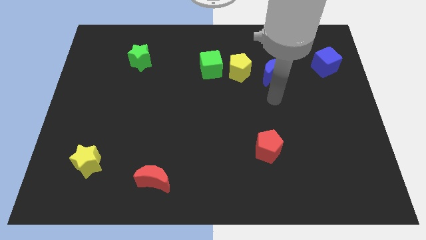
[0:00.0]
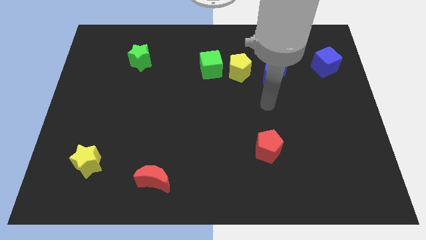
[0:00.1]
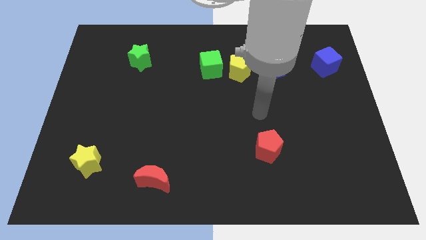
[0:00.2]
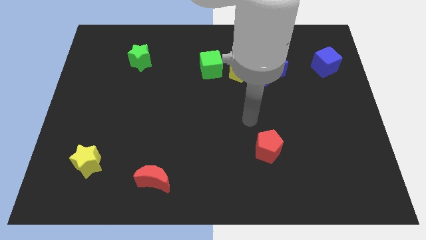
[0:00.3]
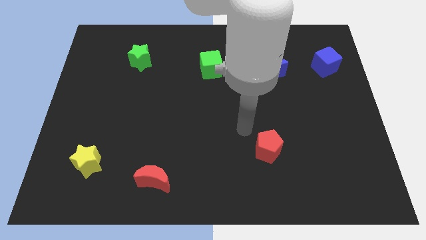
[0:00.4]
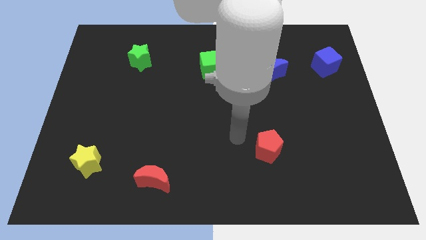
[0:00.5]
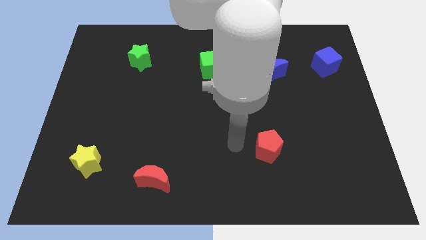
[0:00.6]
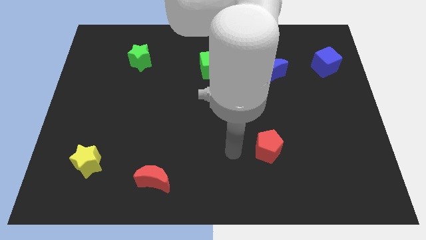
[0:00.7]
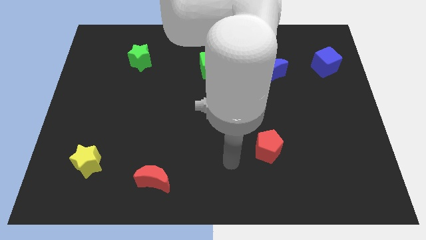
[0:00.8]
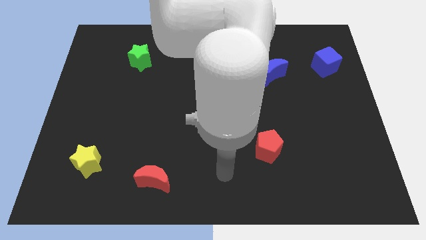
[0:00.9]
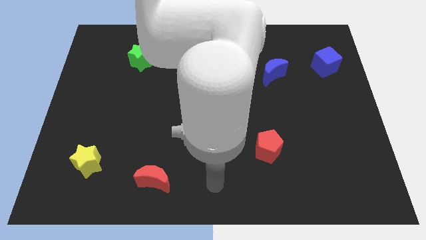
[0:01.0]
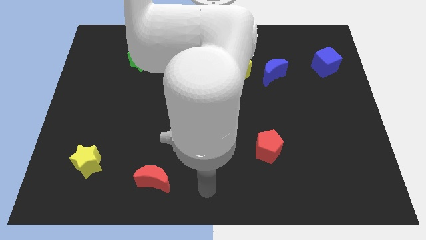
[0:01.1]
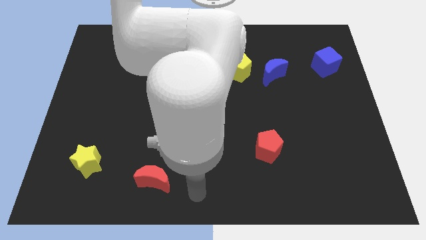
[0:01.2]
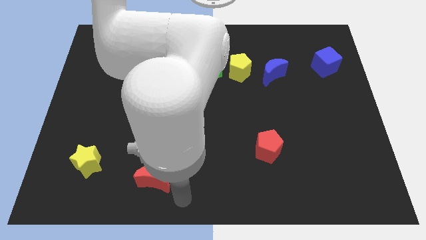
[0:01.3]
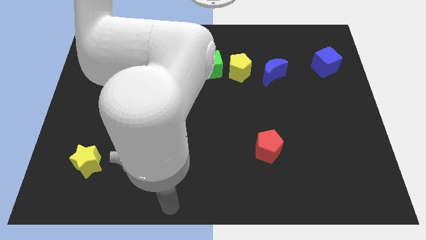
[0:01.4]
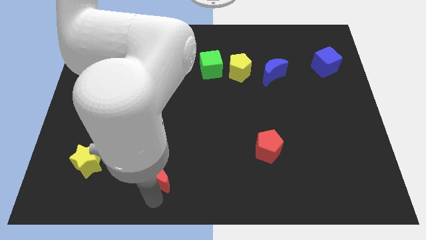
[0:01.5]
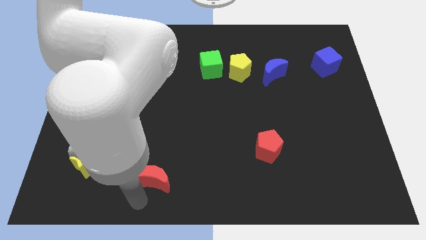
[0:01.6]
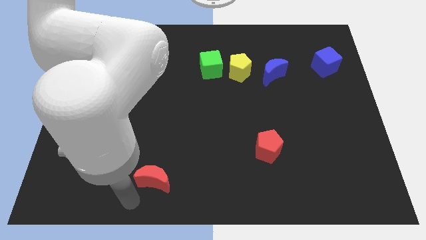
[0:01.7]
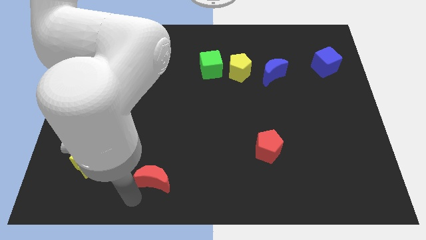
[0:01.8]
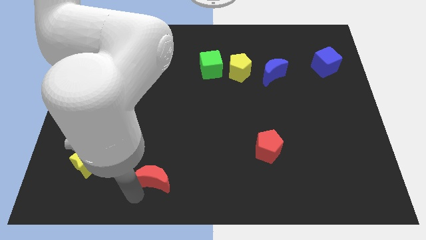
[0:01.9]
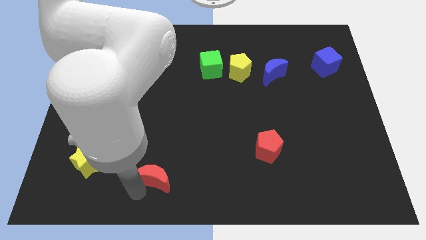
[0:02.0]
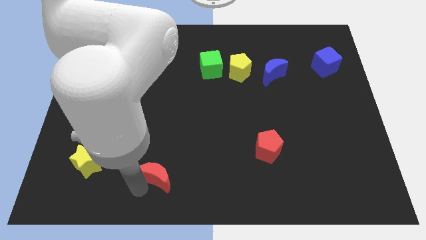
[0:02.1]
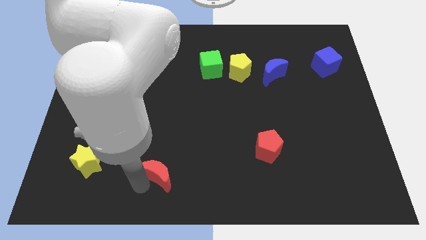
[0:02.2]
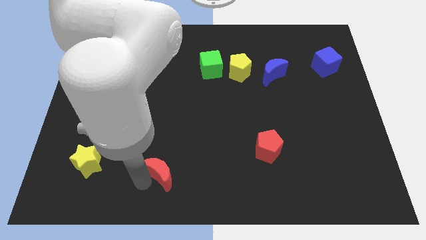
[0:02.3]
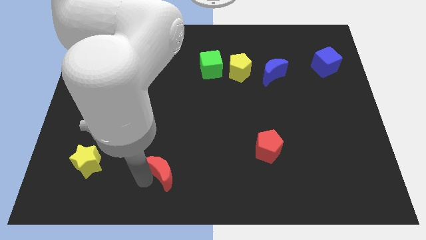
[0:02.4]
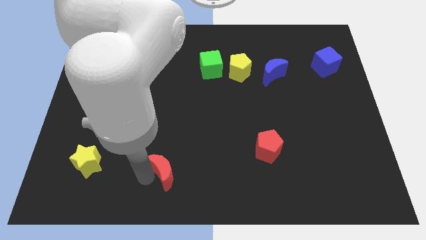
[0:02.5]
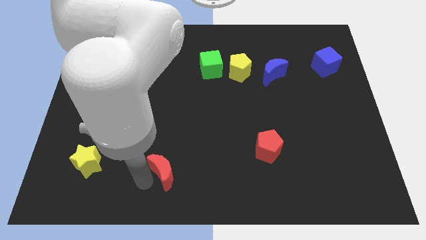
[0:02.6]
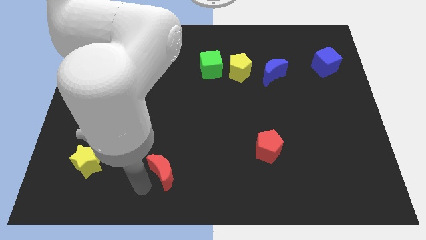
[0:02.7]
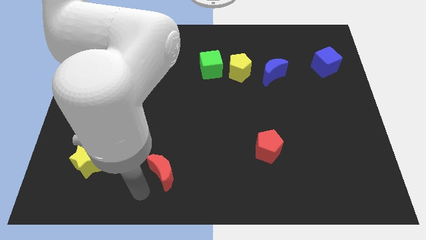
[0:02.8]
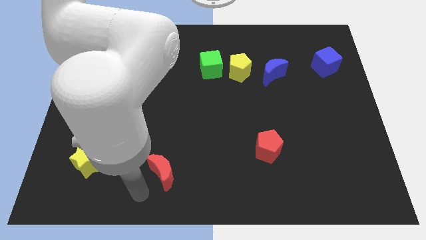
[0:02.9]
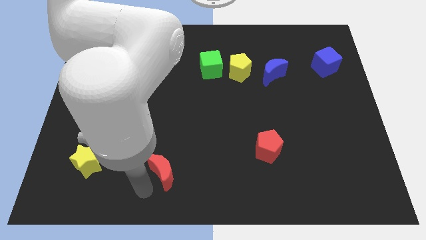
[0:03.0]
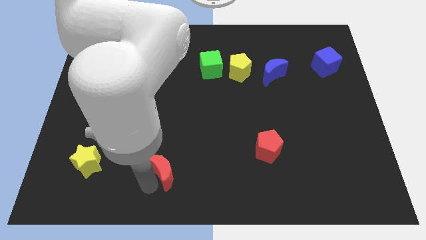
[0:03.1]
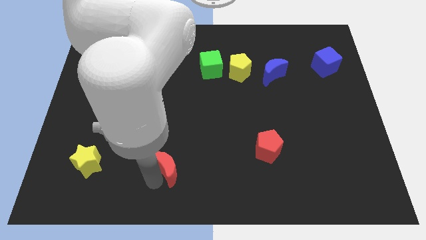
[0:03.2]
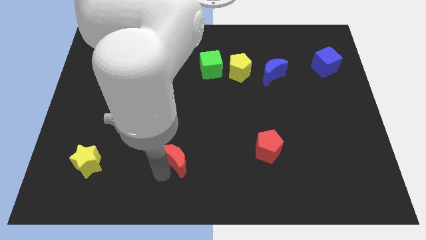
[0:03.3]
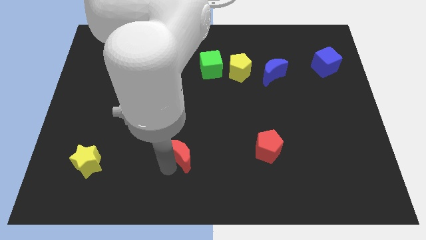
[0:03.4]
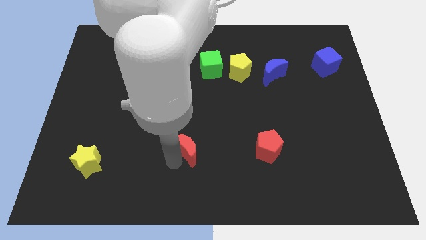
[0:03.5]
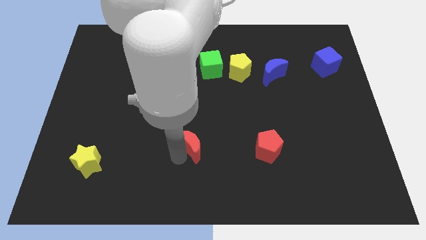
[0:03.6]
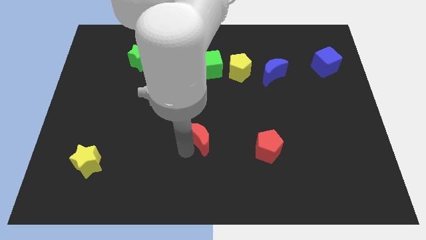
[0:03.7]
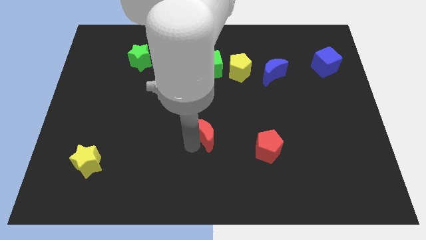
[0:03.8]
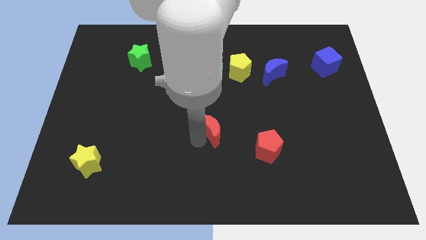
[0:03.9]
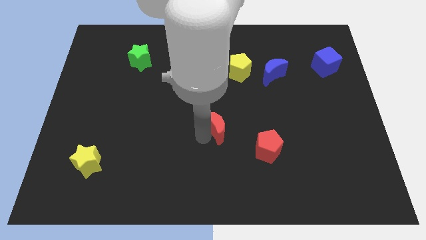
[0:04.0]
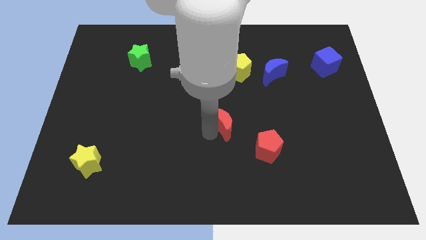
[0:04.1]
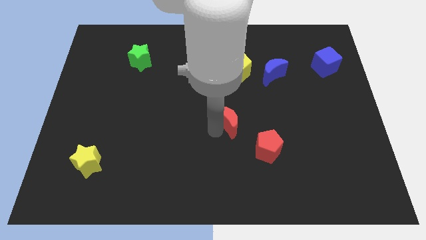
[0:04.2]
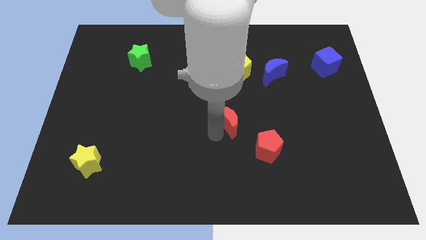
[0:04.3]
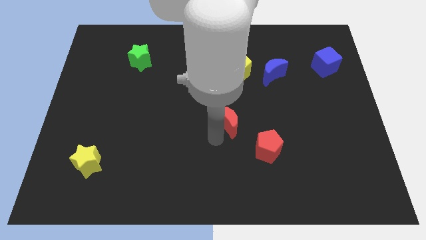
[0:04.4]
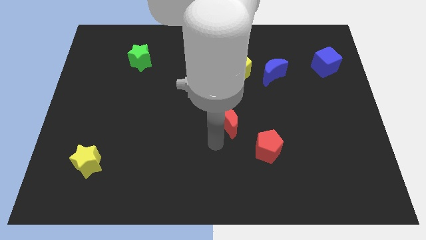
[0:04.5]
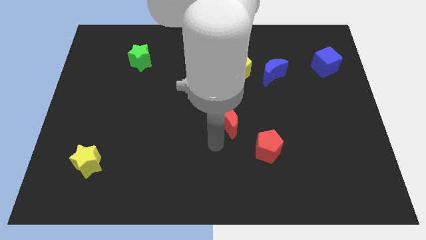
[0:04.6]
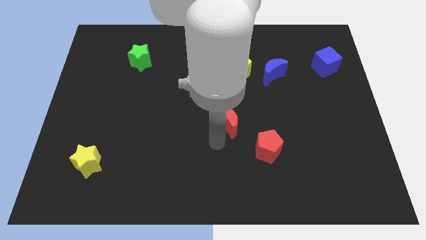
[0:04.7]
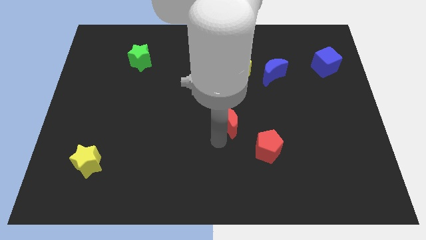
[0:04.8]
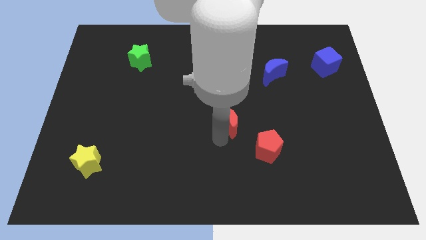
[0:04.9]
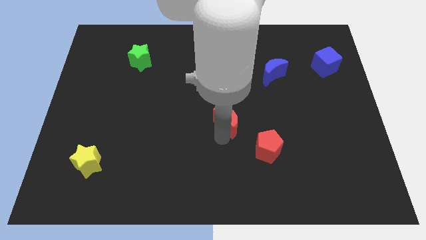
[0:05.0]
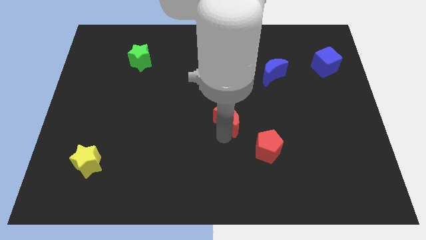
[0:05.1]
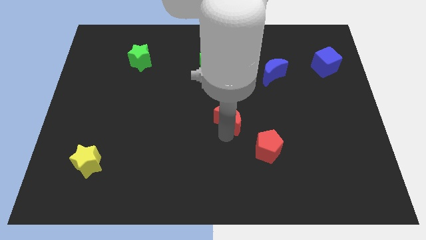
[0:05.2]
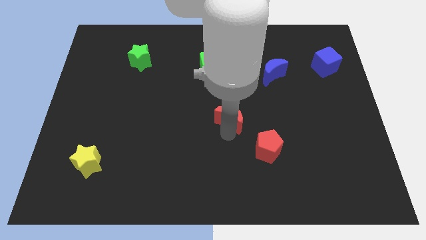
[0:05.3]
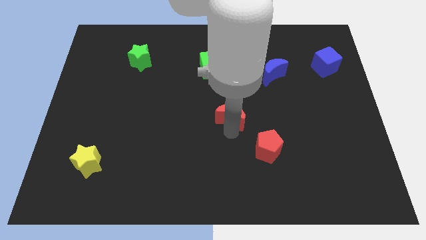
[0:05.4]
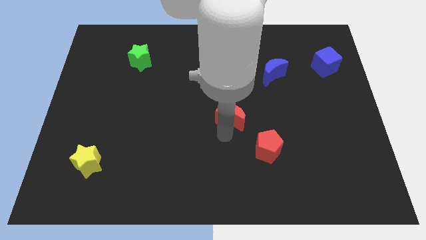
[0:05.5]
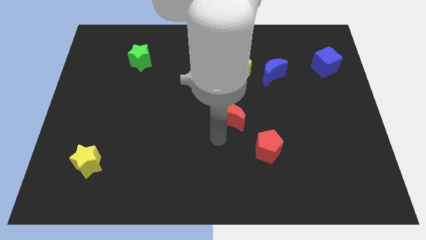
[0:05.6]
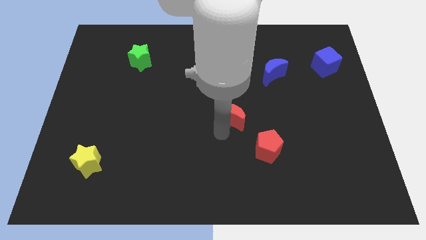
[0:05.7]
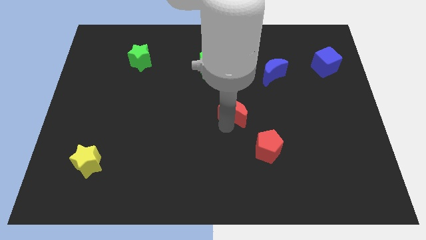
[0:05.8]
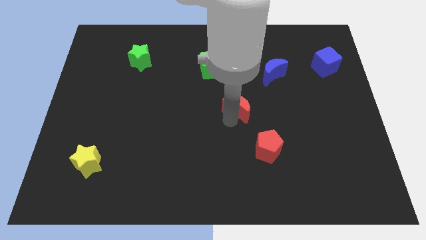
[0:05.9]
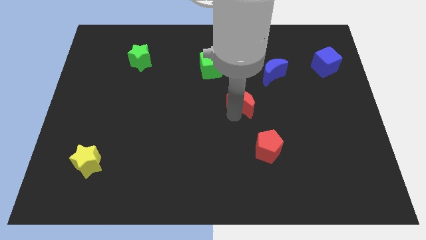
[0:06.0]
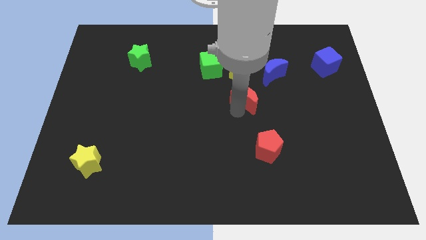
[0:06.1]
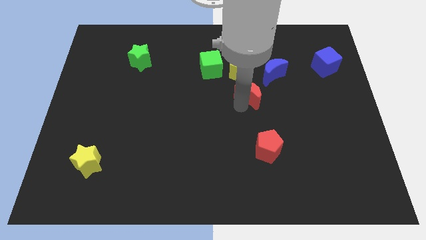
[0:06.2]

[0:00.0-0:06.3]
put the red moon to the bottom right of the yellow pentagon

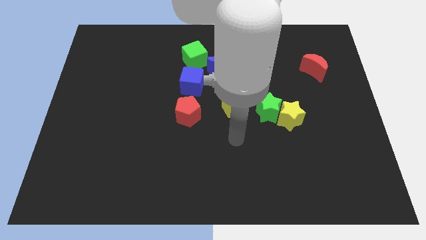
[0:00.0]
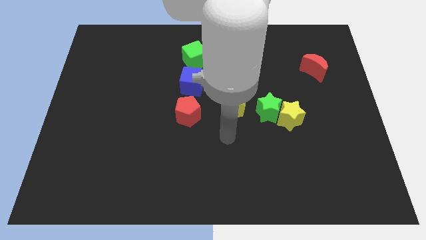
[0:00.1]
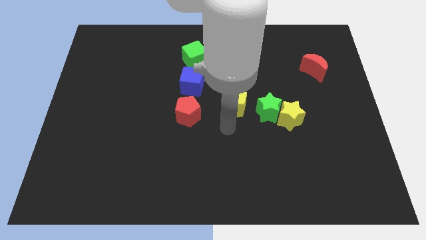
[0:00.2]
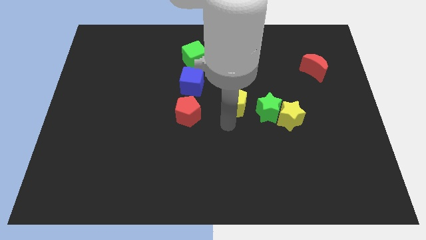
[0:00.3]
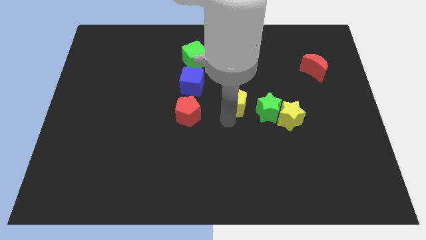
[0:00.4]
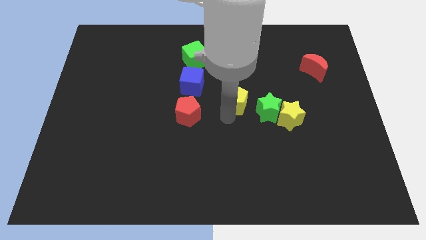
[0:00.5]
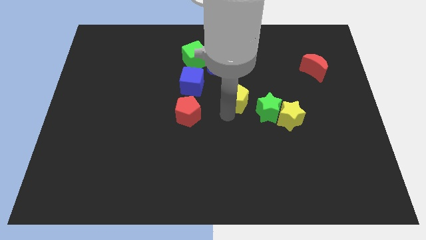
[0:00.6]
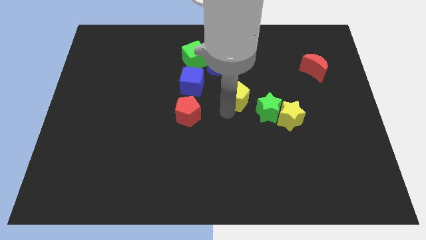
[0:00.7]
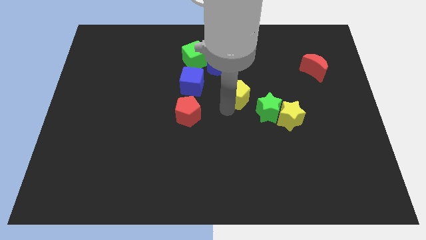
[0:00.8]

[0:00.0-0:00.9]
push the yellow pentagon diagonally down and to the right of the blue moon
